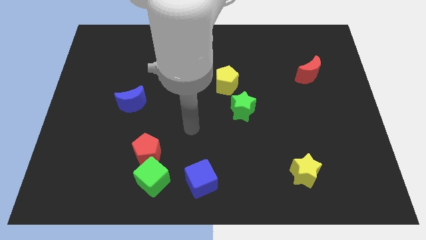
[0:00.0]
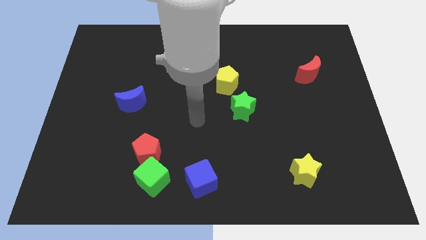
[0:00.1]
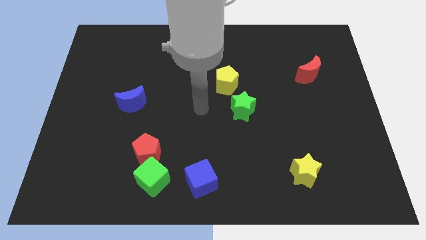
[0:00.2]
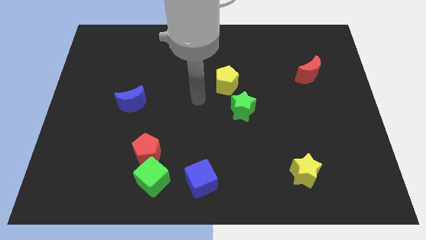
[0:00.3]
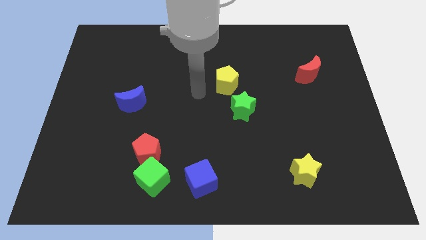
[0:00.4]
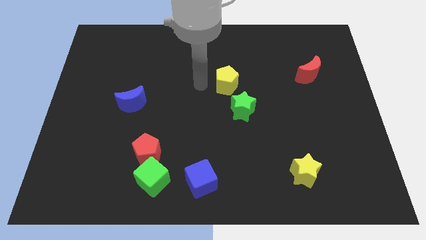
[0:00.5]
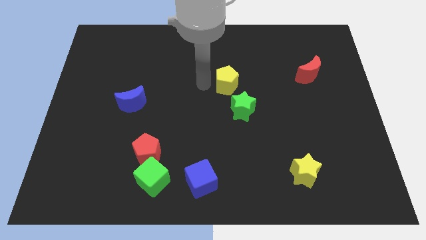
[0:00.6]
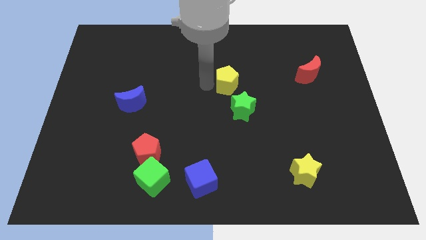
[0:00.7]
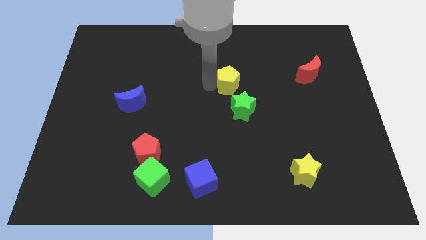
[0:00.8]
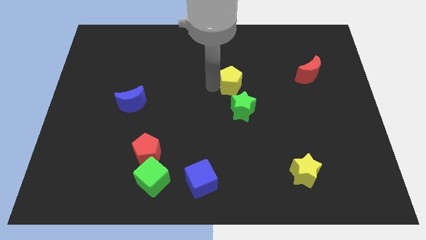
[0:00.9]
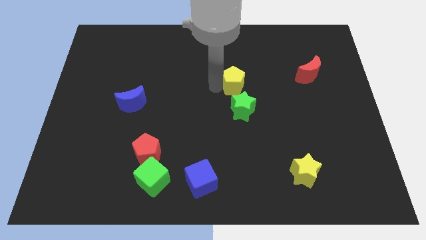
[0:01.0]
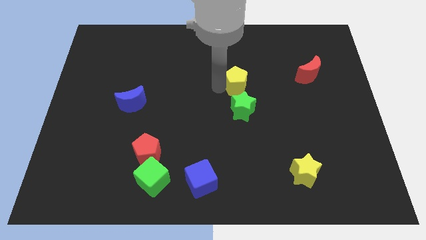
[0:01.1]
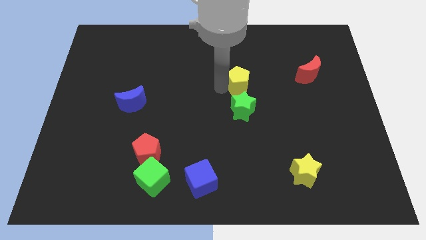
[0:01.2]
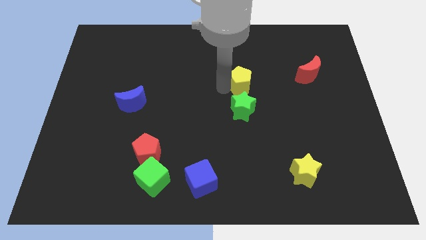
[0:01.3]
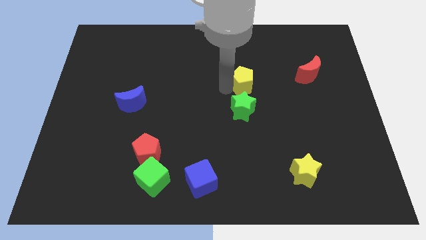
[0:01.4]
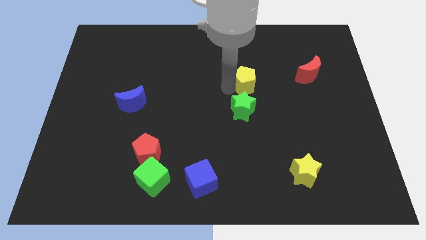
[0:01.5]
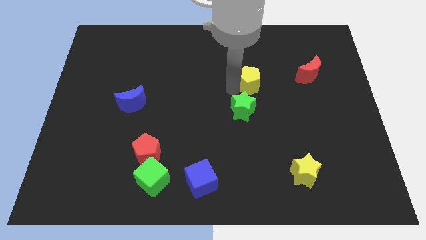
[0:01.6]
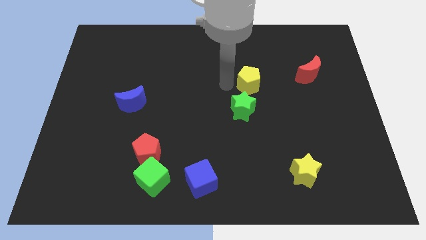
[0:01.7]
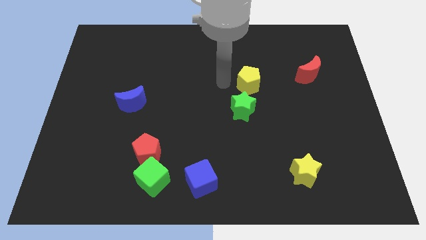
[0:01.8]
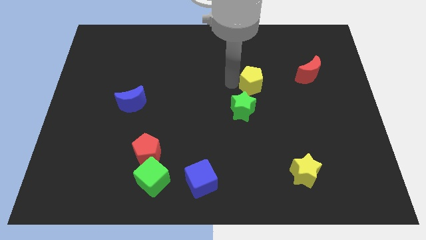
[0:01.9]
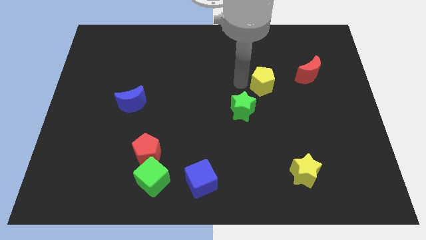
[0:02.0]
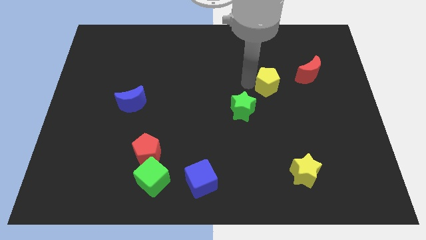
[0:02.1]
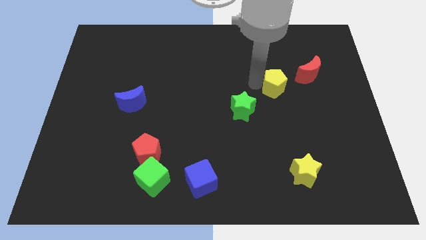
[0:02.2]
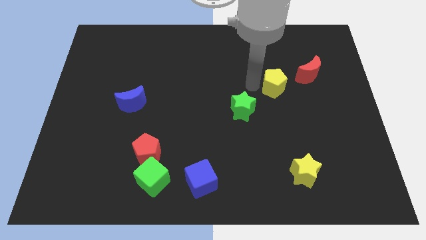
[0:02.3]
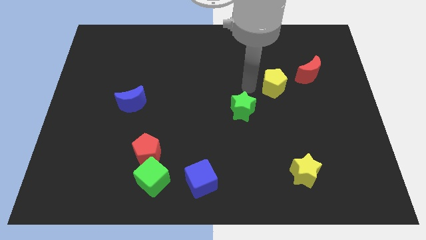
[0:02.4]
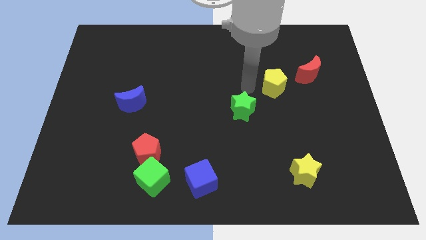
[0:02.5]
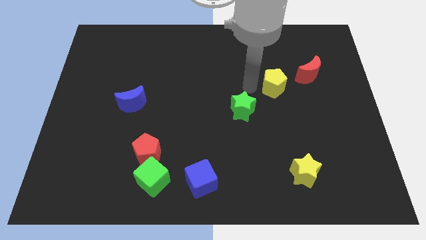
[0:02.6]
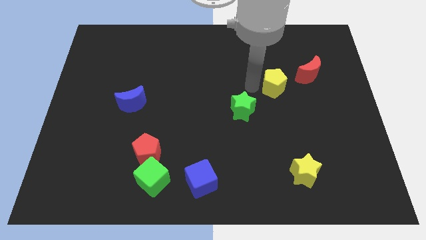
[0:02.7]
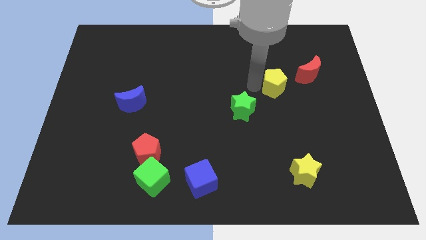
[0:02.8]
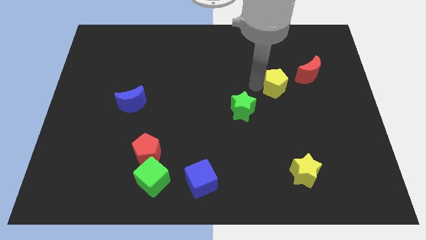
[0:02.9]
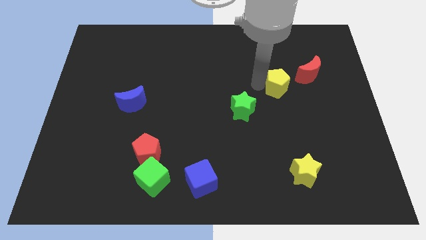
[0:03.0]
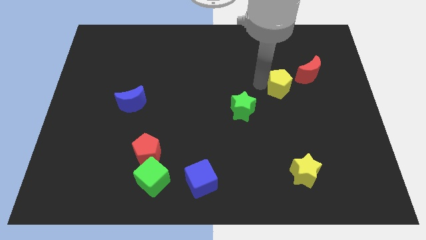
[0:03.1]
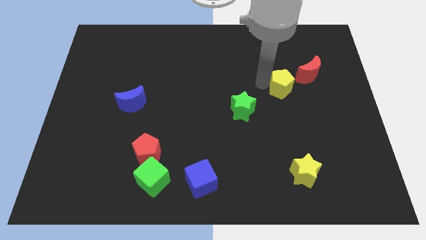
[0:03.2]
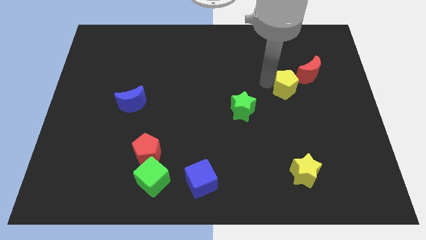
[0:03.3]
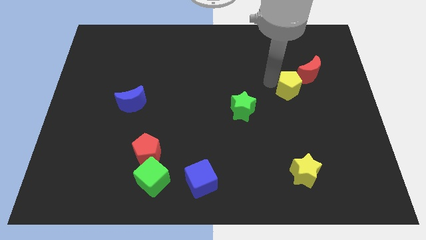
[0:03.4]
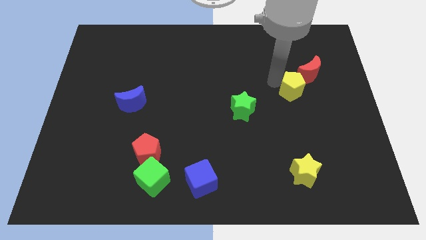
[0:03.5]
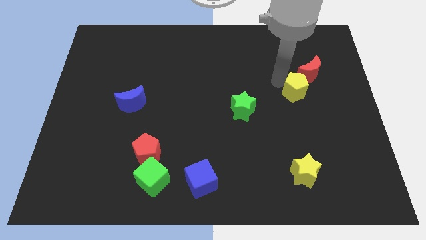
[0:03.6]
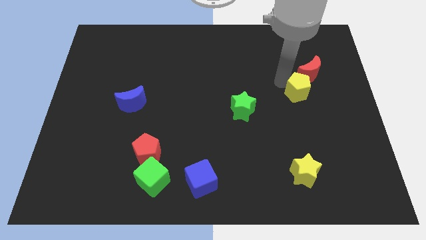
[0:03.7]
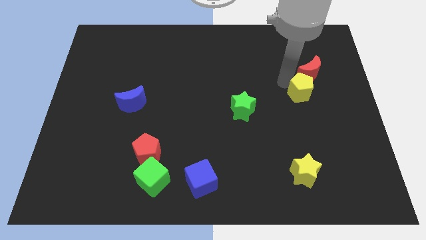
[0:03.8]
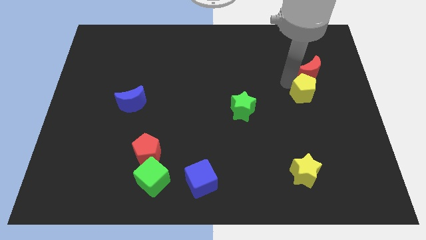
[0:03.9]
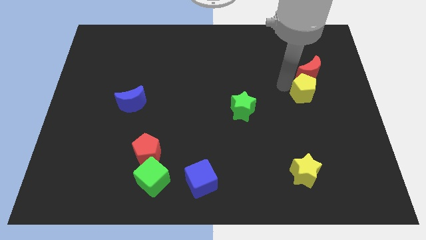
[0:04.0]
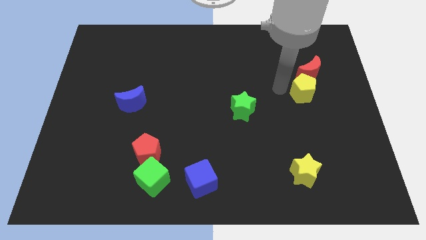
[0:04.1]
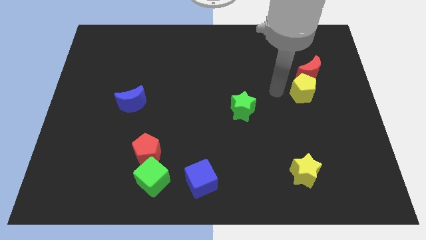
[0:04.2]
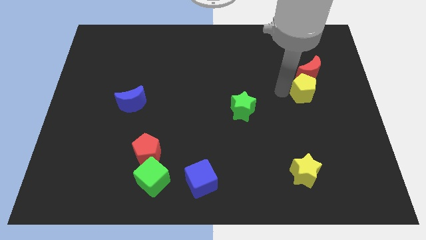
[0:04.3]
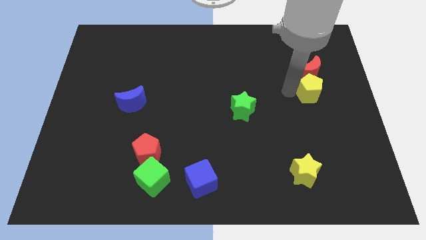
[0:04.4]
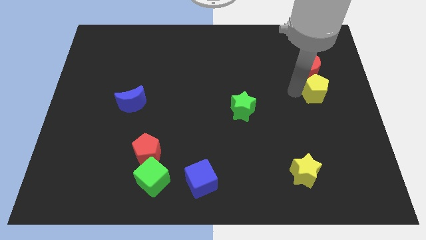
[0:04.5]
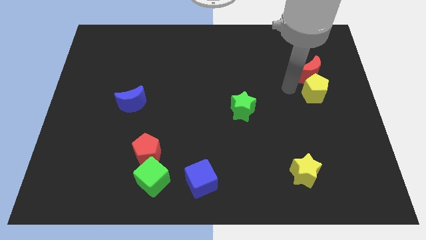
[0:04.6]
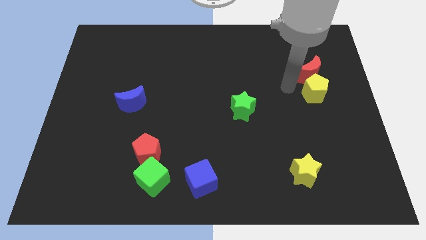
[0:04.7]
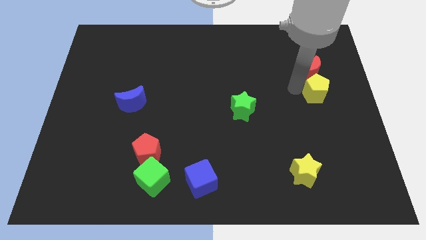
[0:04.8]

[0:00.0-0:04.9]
slide the yellow pentagon to the right side

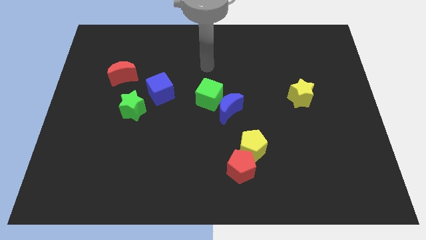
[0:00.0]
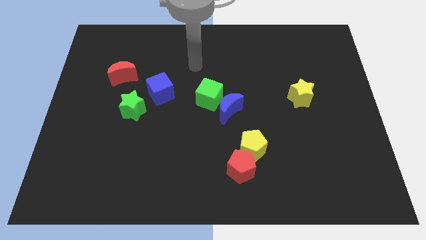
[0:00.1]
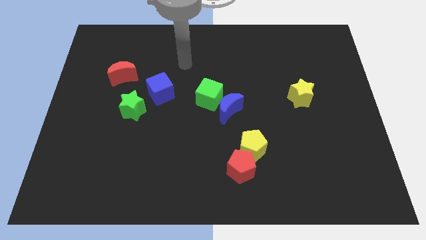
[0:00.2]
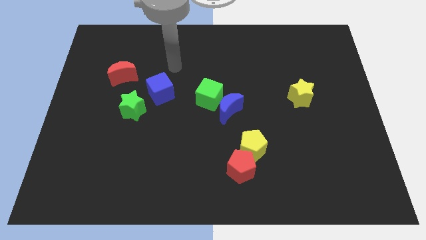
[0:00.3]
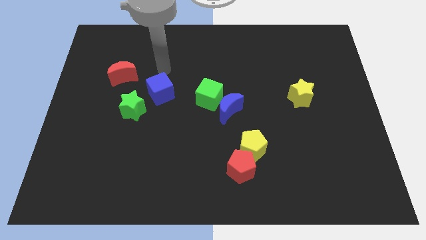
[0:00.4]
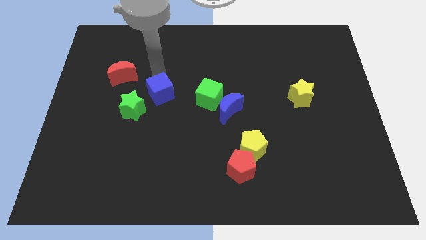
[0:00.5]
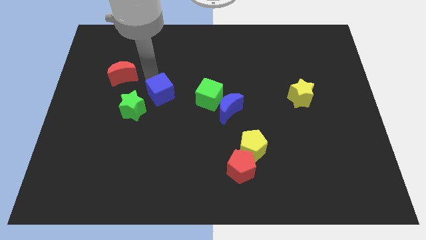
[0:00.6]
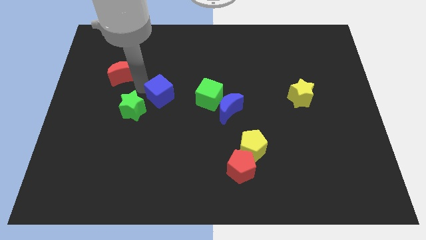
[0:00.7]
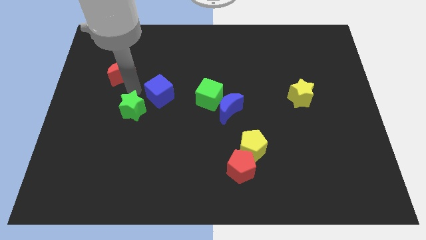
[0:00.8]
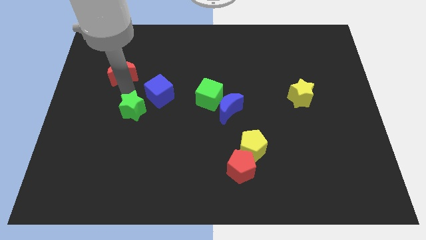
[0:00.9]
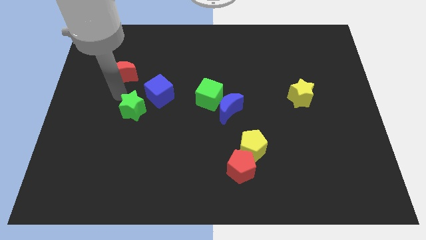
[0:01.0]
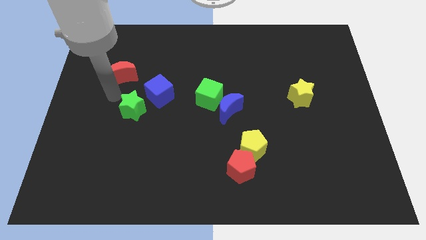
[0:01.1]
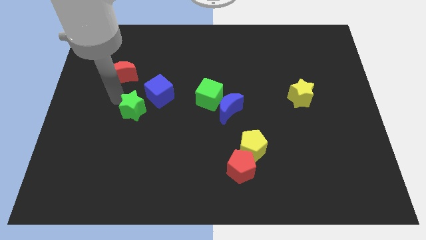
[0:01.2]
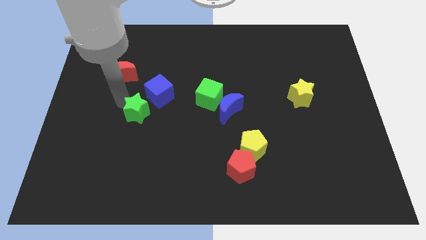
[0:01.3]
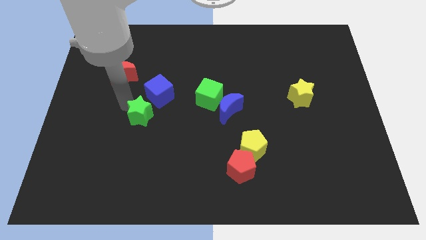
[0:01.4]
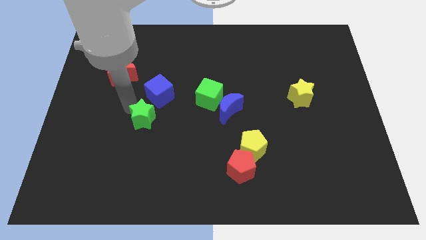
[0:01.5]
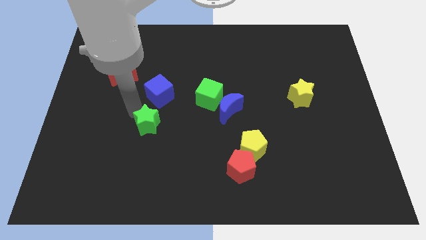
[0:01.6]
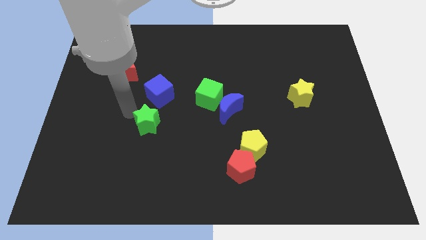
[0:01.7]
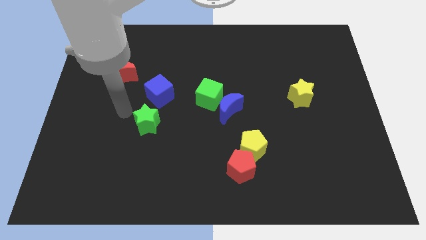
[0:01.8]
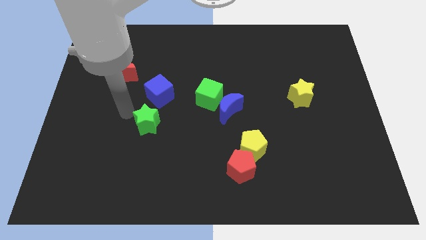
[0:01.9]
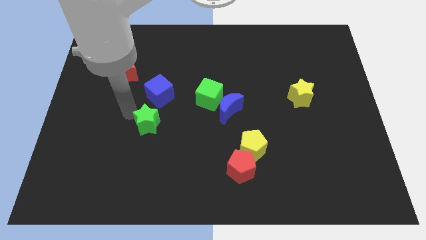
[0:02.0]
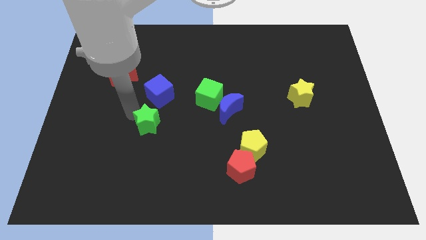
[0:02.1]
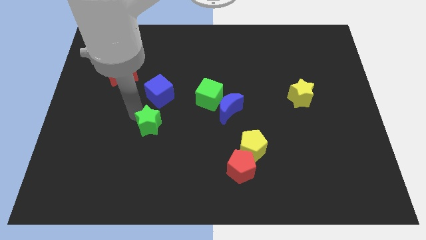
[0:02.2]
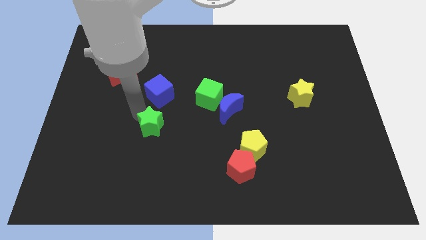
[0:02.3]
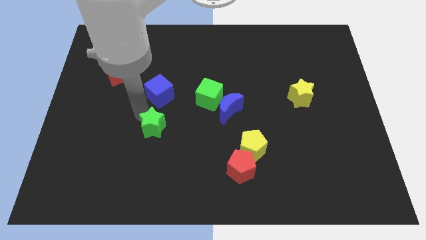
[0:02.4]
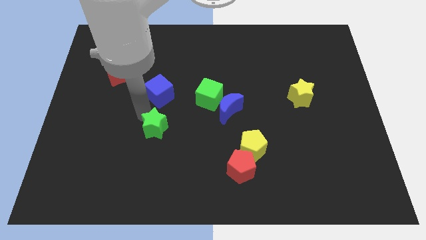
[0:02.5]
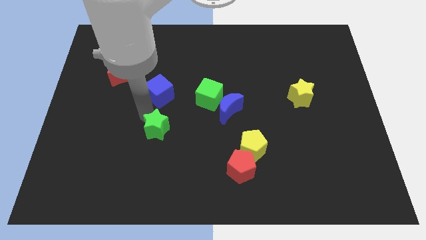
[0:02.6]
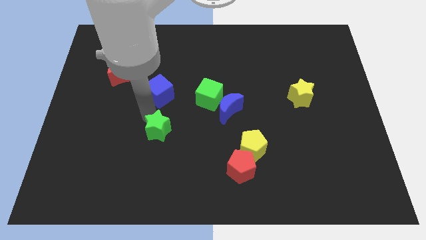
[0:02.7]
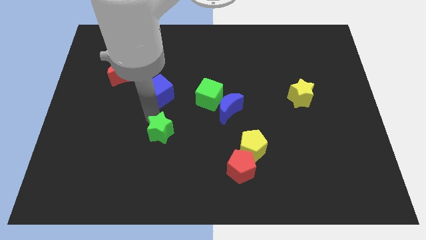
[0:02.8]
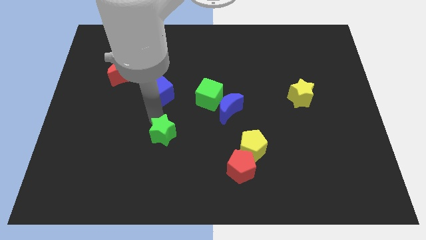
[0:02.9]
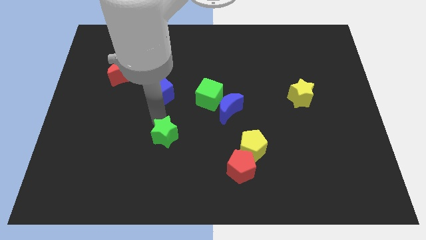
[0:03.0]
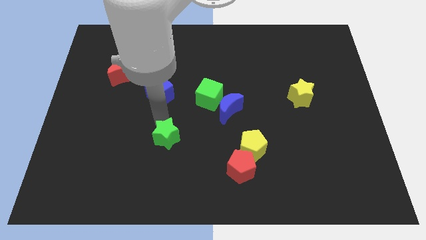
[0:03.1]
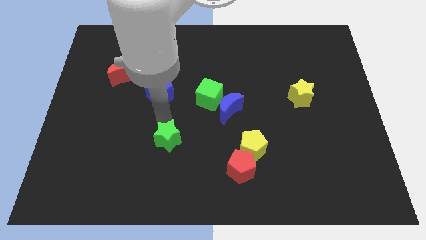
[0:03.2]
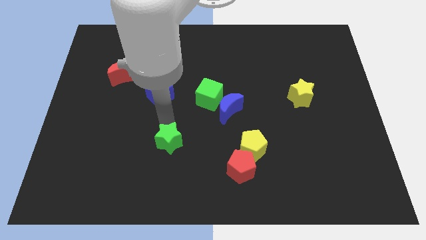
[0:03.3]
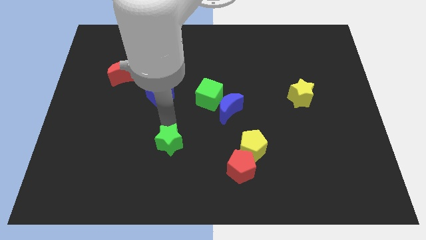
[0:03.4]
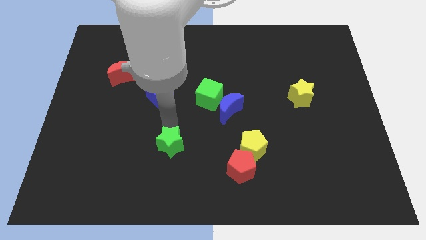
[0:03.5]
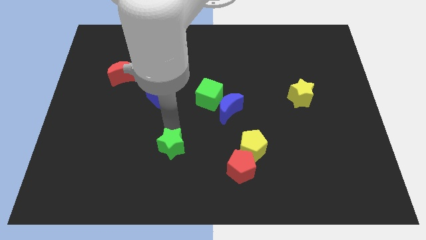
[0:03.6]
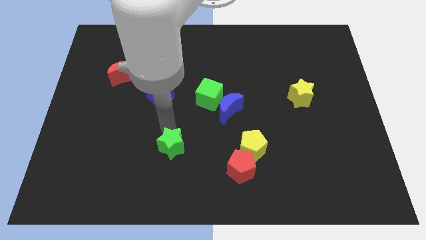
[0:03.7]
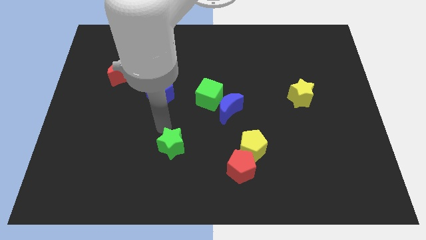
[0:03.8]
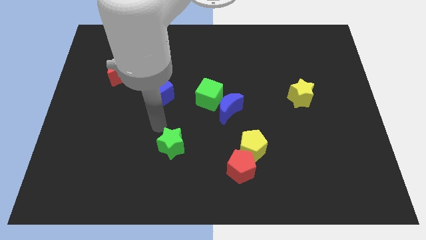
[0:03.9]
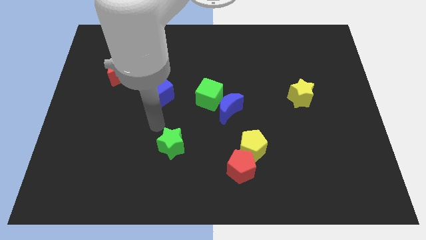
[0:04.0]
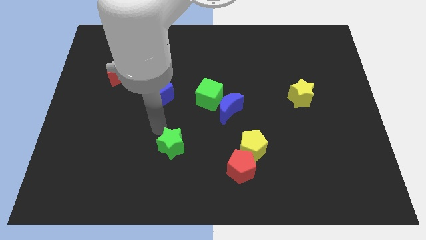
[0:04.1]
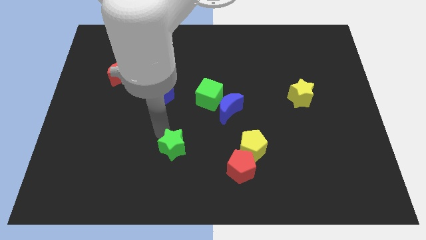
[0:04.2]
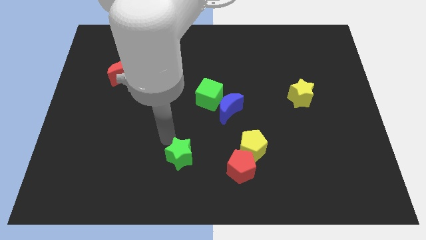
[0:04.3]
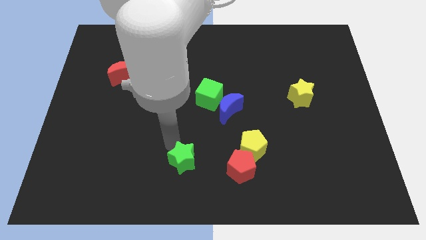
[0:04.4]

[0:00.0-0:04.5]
push the green star to the bottom
